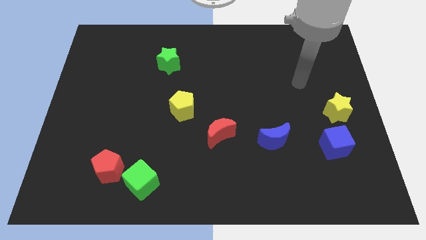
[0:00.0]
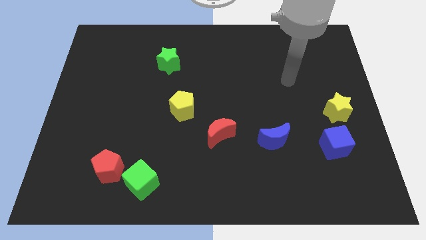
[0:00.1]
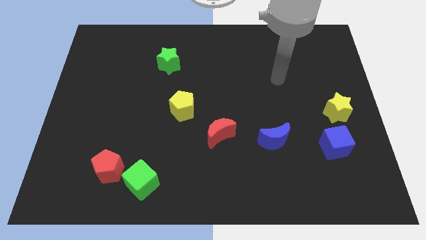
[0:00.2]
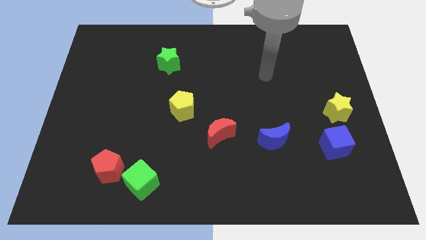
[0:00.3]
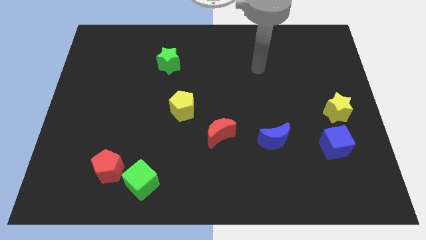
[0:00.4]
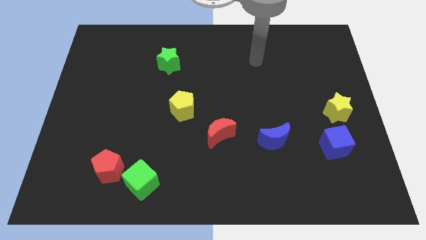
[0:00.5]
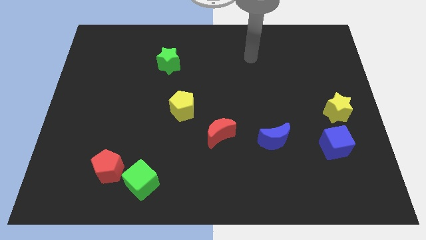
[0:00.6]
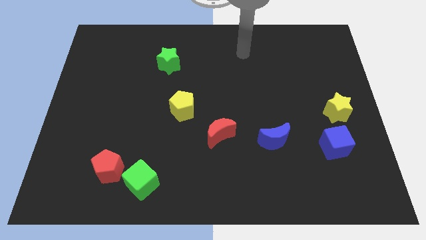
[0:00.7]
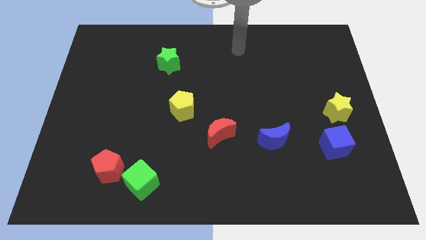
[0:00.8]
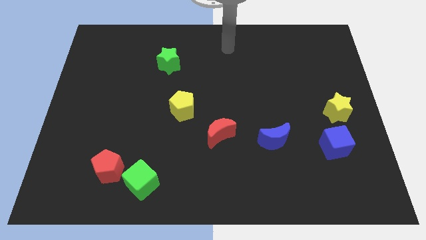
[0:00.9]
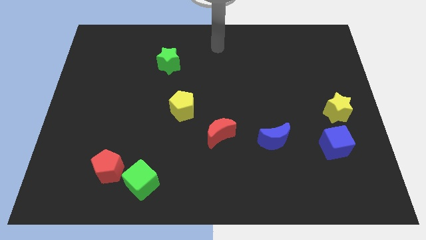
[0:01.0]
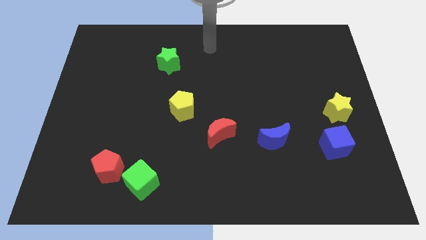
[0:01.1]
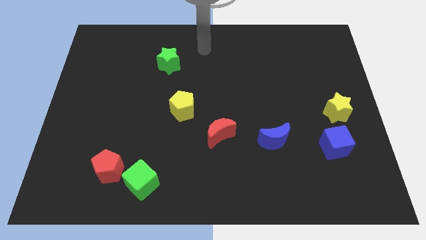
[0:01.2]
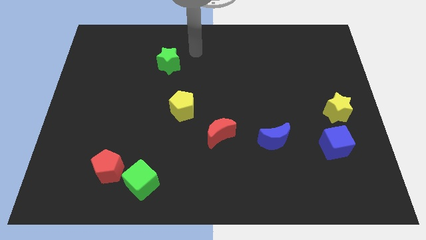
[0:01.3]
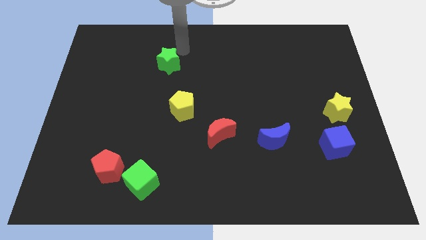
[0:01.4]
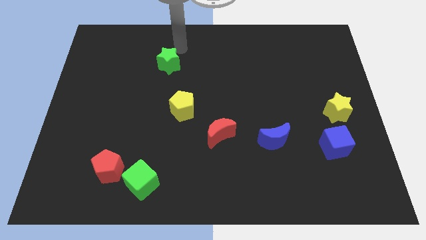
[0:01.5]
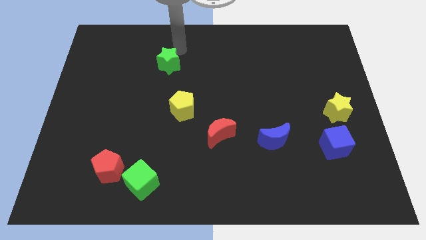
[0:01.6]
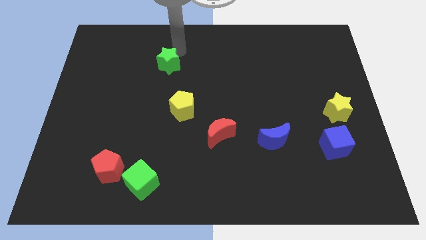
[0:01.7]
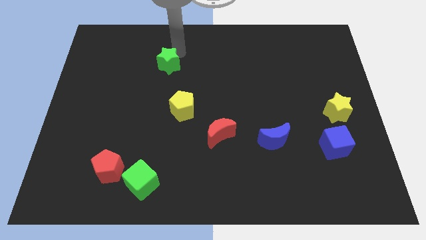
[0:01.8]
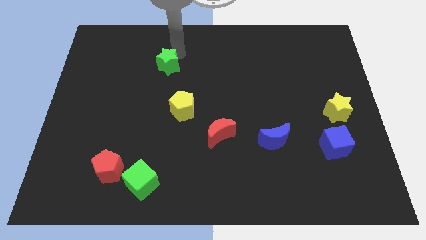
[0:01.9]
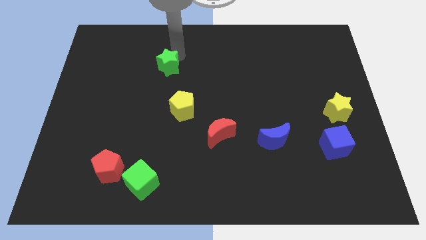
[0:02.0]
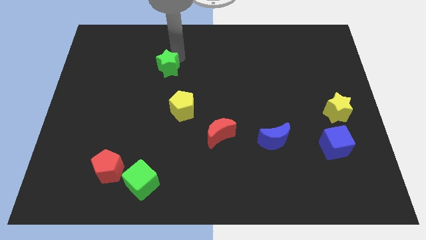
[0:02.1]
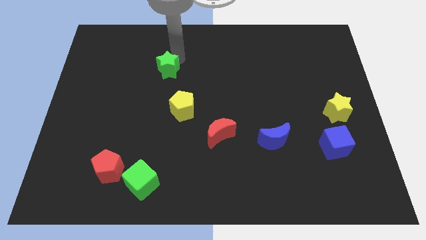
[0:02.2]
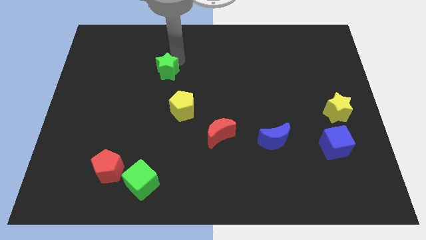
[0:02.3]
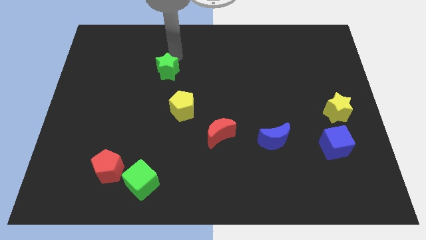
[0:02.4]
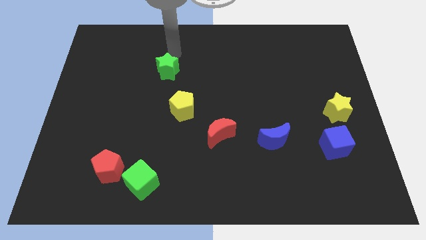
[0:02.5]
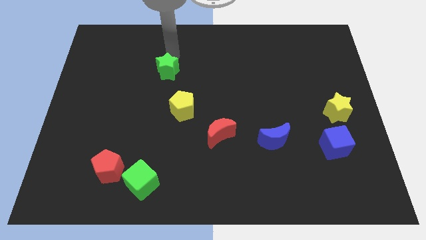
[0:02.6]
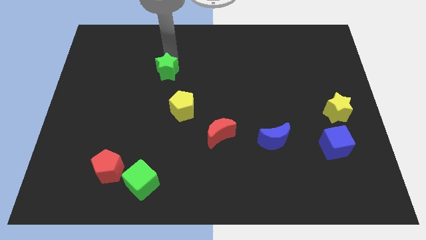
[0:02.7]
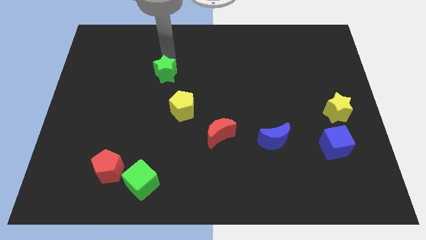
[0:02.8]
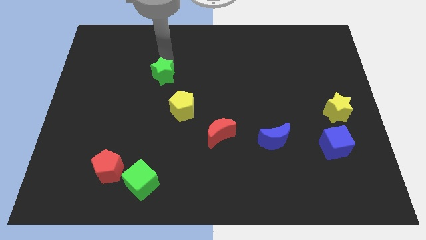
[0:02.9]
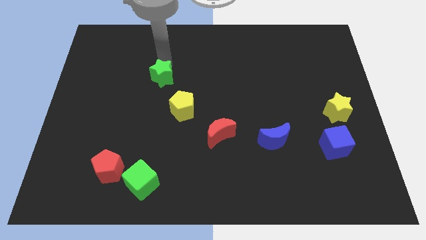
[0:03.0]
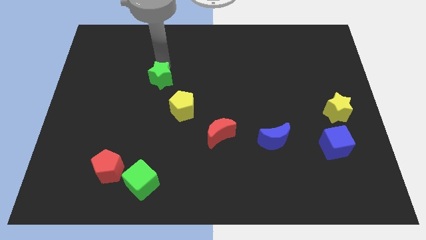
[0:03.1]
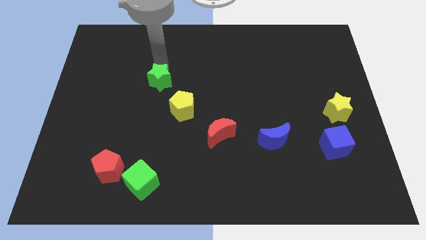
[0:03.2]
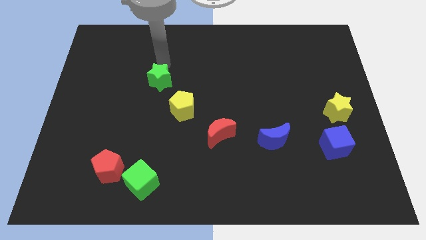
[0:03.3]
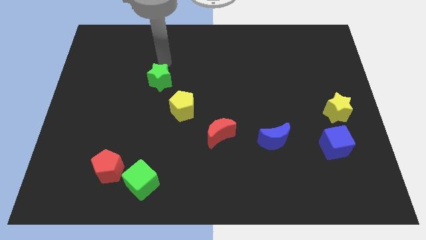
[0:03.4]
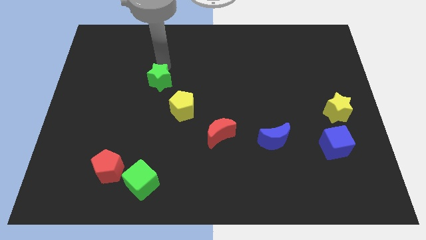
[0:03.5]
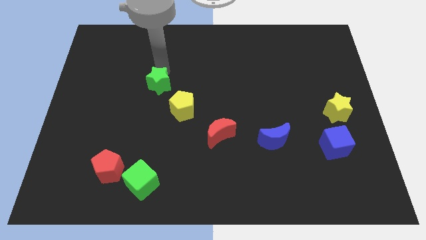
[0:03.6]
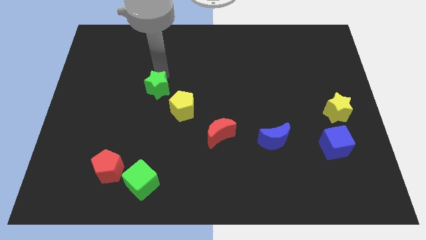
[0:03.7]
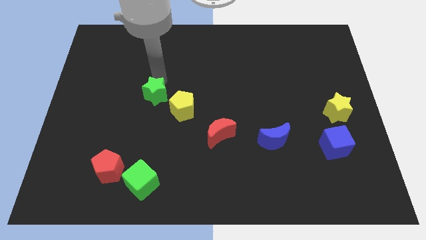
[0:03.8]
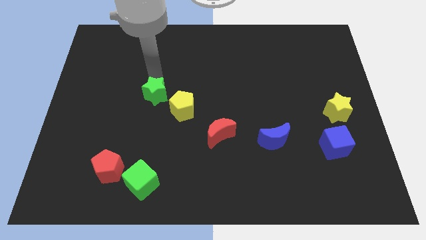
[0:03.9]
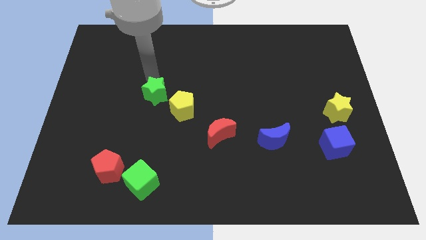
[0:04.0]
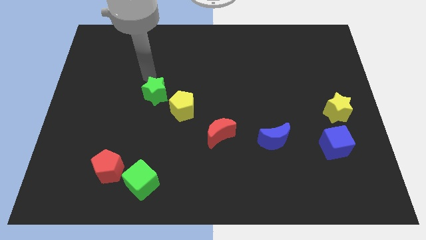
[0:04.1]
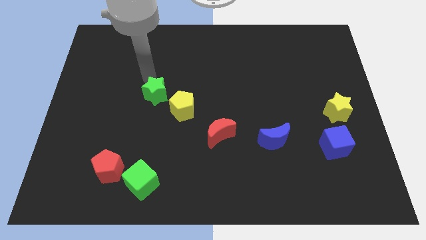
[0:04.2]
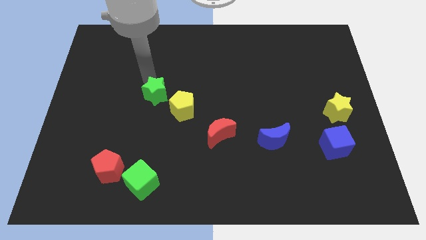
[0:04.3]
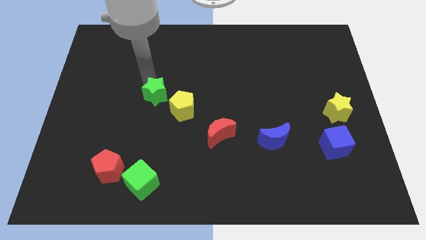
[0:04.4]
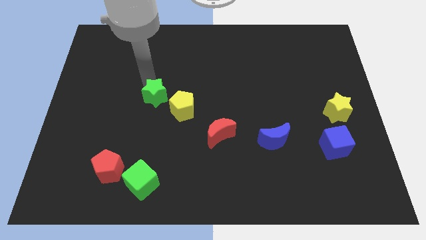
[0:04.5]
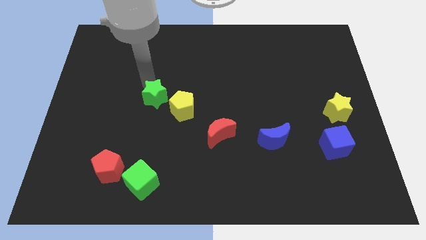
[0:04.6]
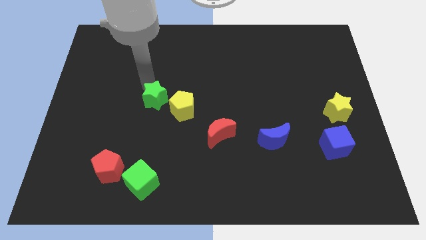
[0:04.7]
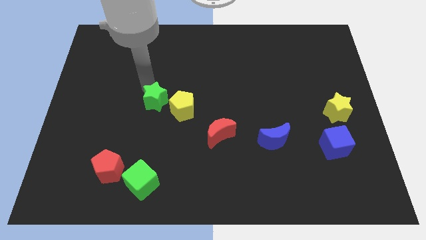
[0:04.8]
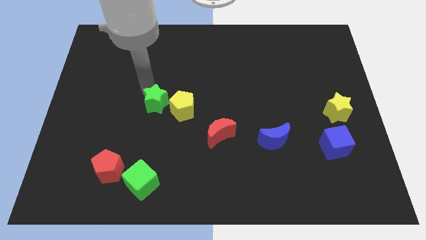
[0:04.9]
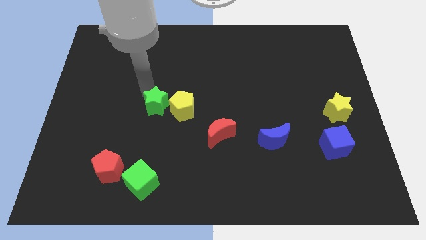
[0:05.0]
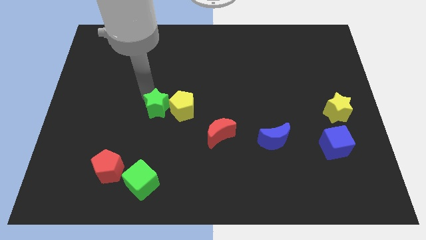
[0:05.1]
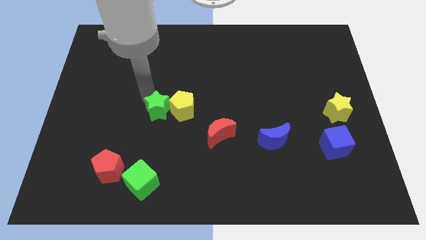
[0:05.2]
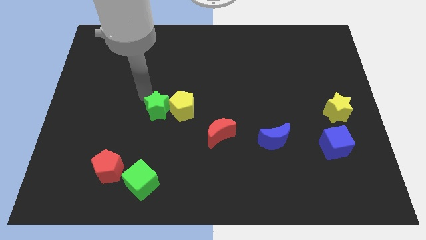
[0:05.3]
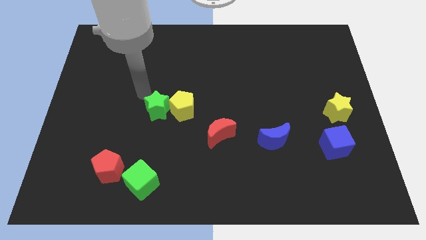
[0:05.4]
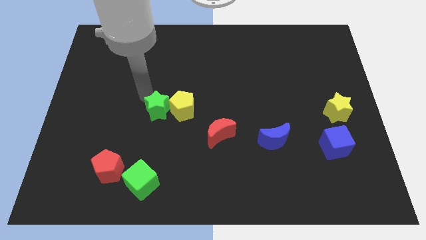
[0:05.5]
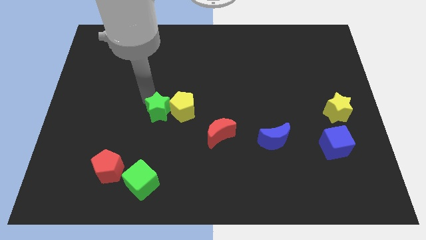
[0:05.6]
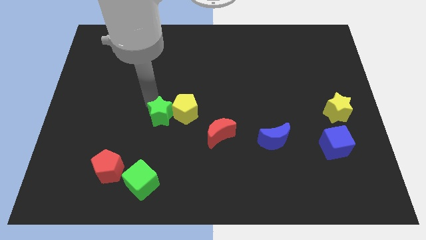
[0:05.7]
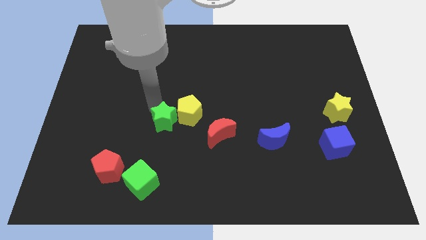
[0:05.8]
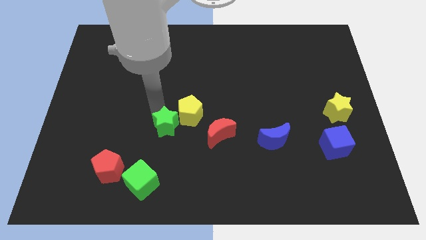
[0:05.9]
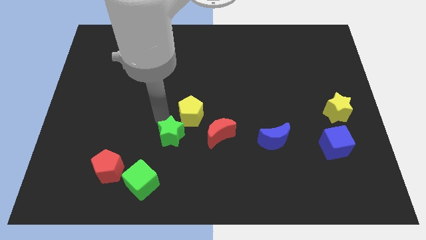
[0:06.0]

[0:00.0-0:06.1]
put the green star to the bottom side of the yellow pentagon

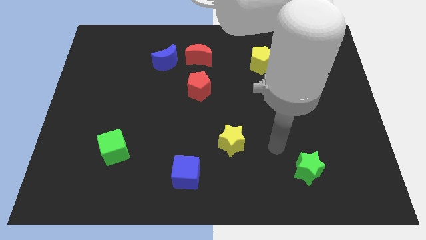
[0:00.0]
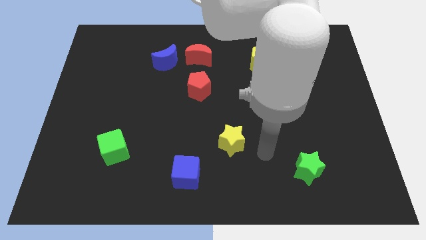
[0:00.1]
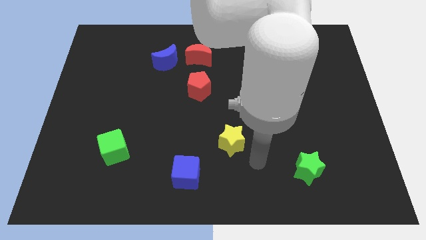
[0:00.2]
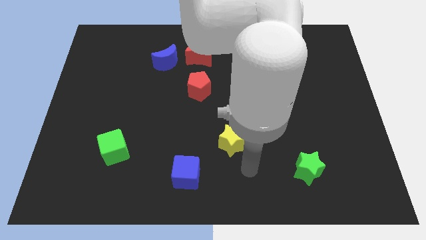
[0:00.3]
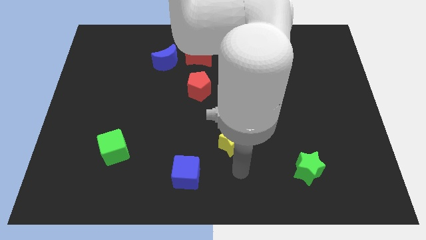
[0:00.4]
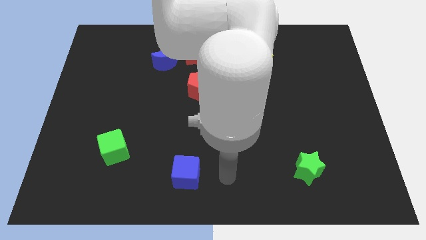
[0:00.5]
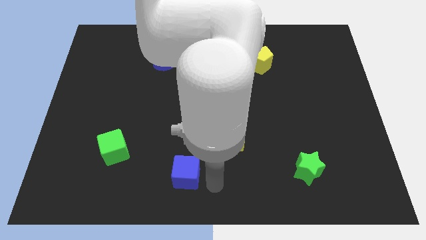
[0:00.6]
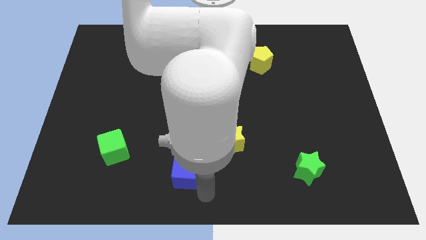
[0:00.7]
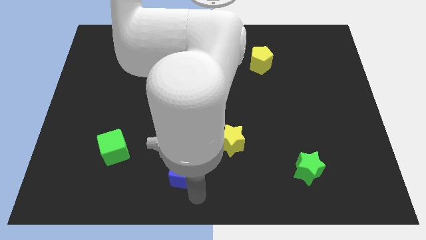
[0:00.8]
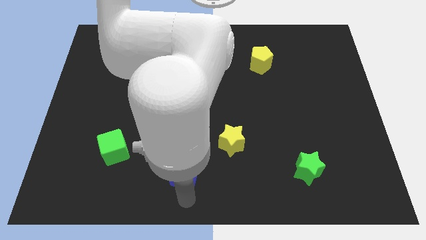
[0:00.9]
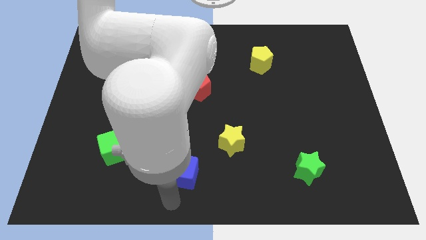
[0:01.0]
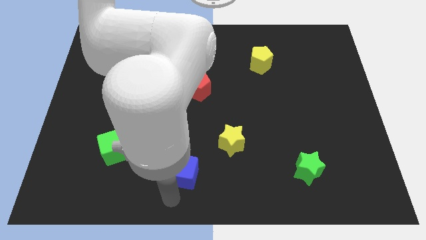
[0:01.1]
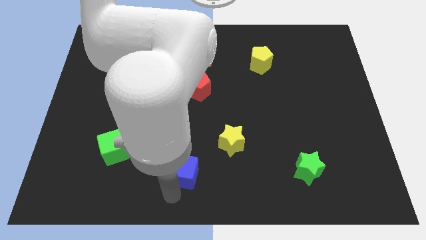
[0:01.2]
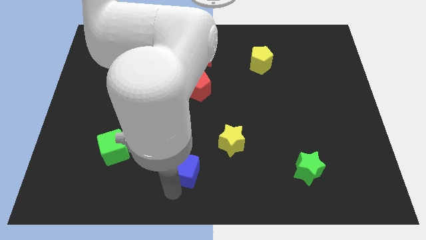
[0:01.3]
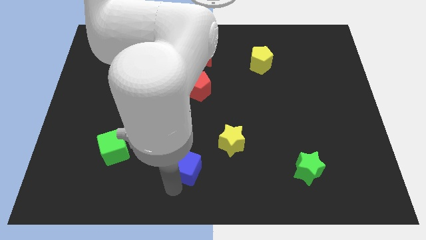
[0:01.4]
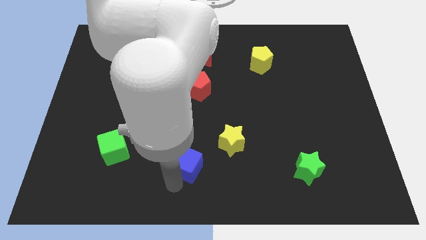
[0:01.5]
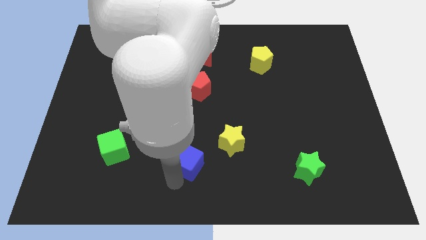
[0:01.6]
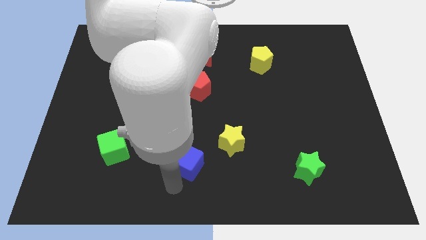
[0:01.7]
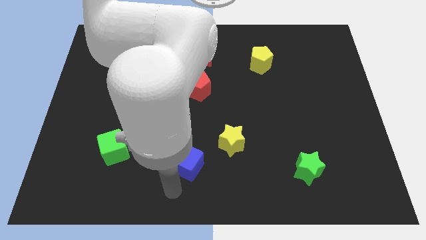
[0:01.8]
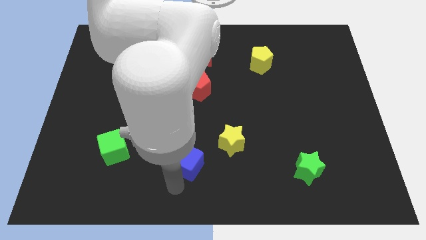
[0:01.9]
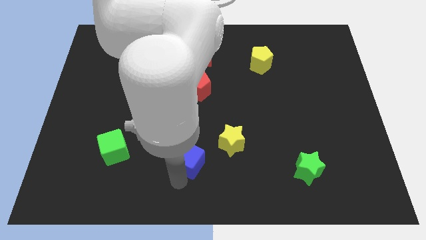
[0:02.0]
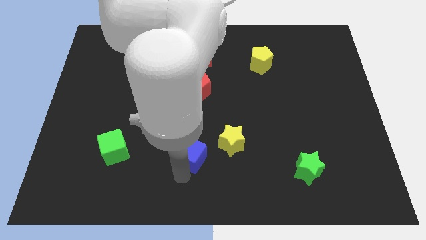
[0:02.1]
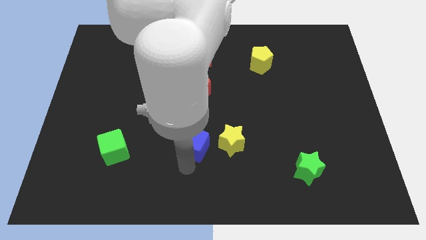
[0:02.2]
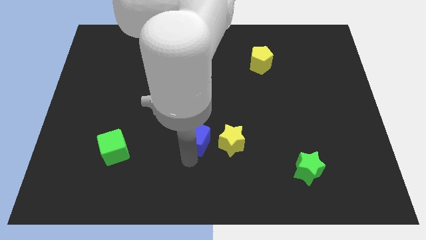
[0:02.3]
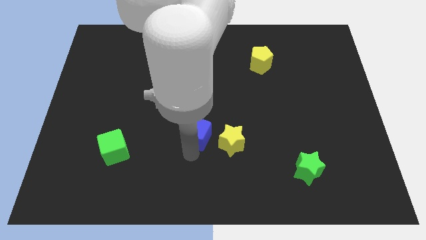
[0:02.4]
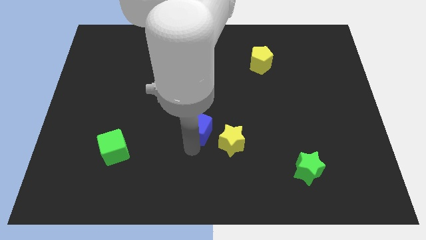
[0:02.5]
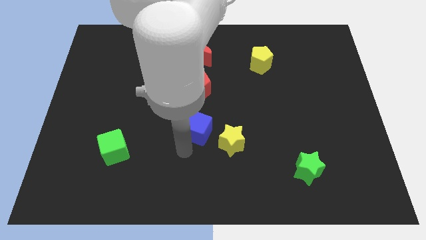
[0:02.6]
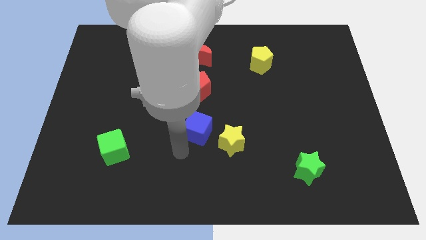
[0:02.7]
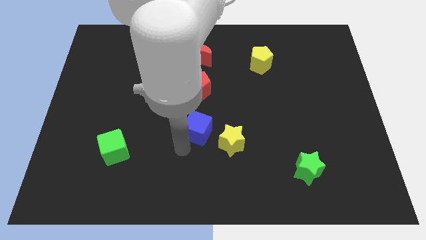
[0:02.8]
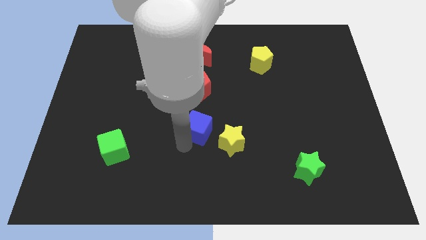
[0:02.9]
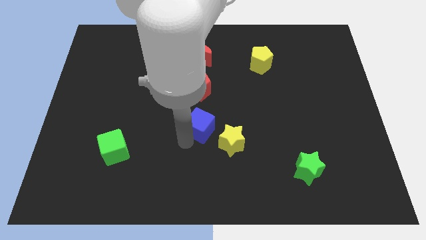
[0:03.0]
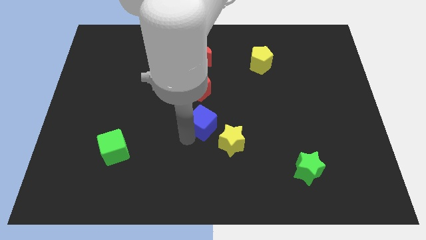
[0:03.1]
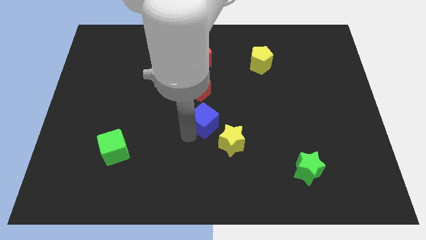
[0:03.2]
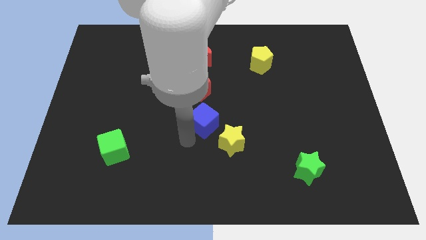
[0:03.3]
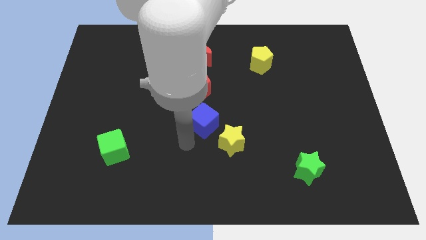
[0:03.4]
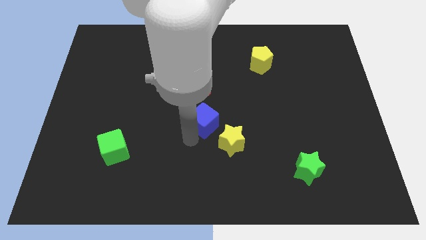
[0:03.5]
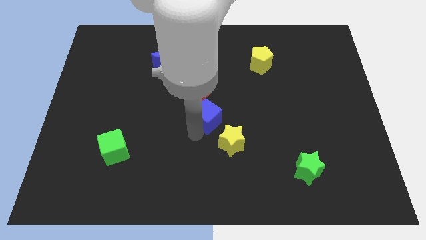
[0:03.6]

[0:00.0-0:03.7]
slide the blue cube to the bottom right side of the red pentagon
